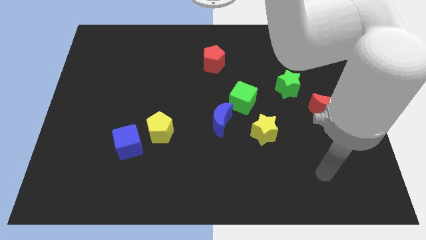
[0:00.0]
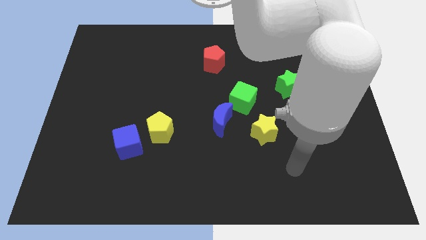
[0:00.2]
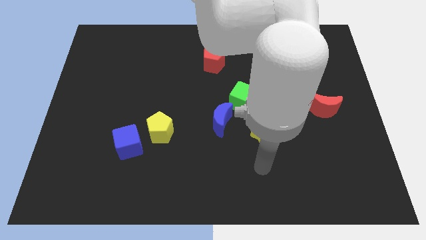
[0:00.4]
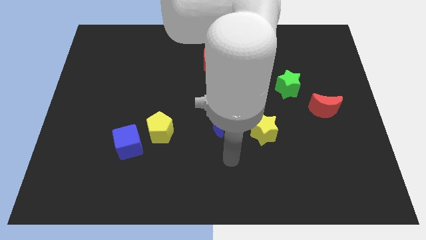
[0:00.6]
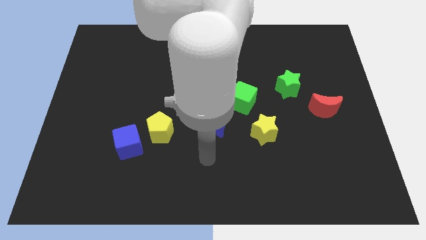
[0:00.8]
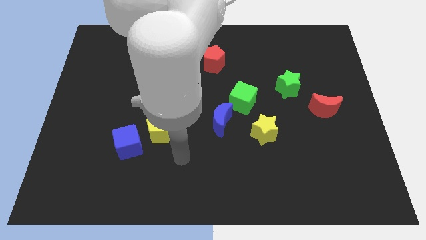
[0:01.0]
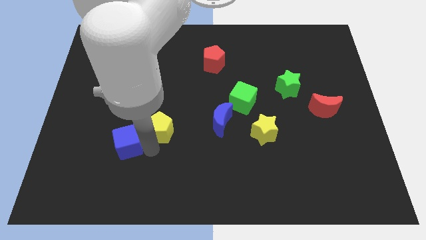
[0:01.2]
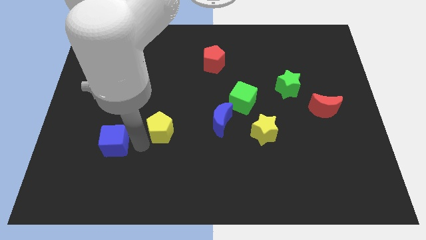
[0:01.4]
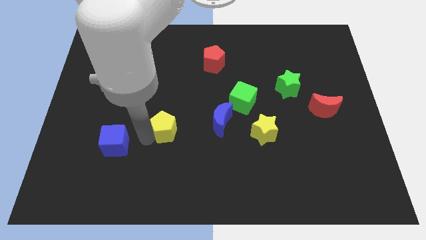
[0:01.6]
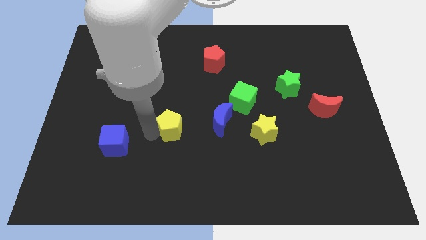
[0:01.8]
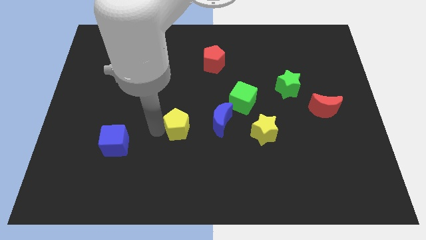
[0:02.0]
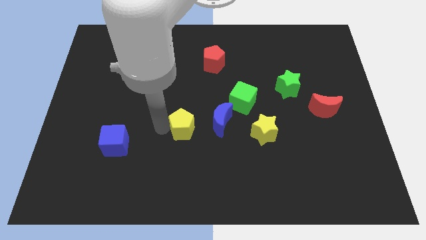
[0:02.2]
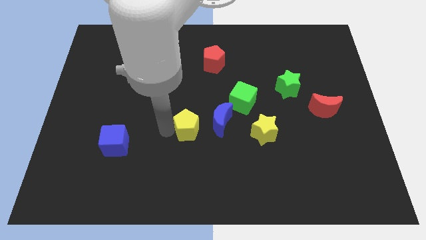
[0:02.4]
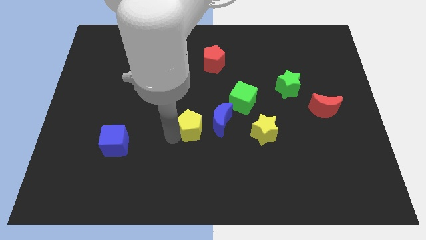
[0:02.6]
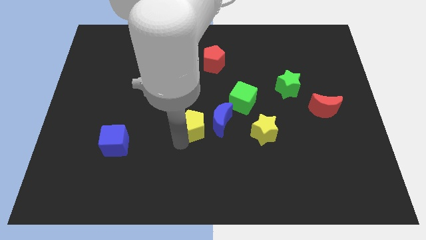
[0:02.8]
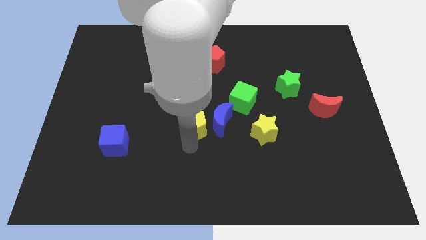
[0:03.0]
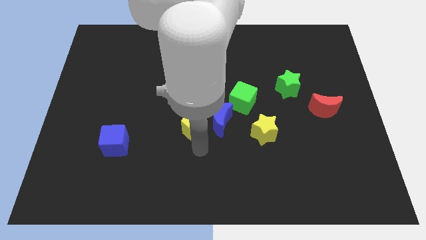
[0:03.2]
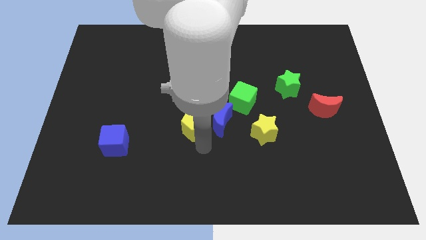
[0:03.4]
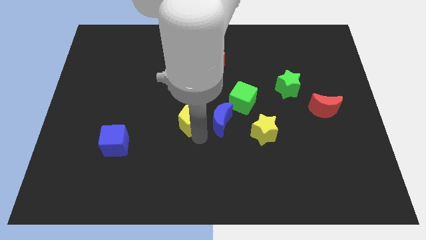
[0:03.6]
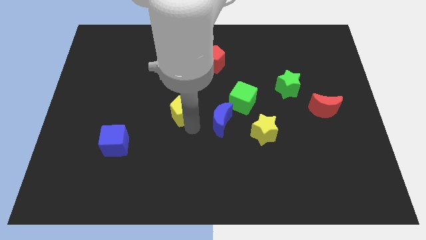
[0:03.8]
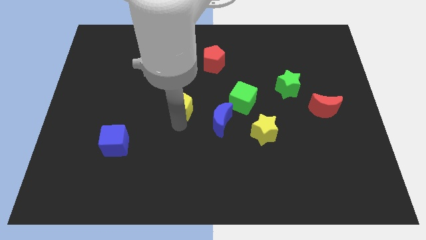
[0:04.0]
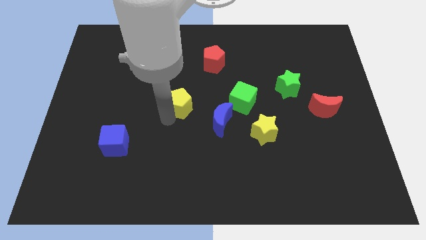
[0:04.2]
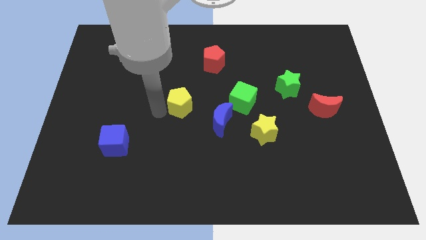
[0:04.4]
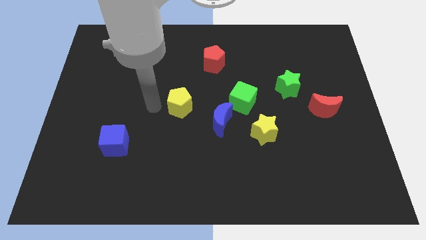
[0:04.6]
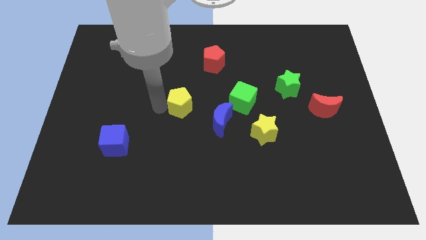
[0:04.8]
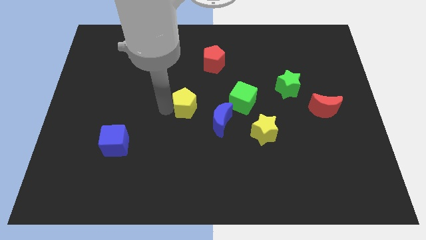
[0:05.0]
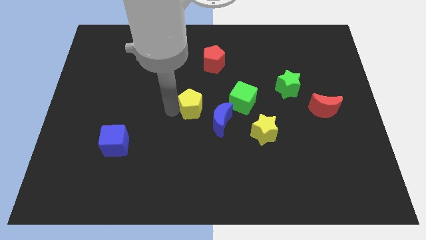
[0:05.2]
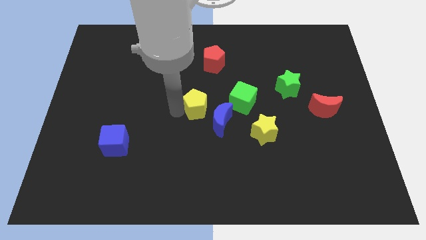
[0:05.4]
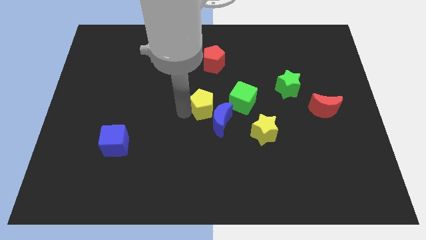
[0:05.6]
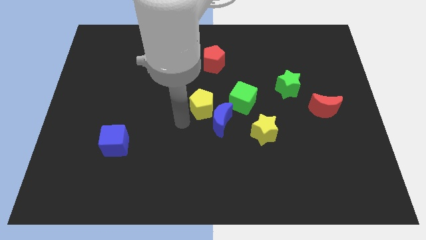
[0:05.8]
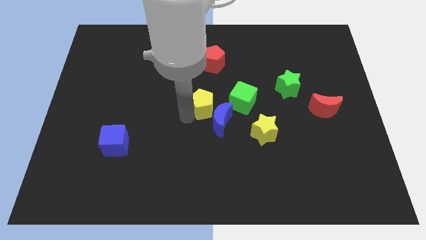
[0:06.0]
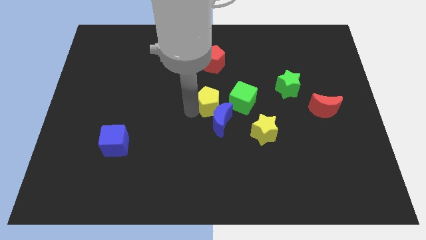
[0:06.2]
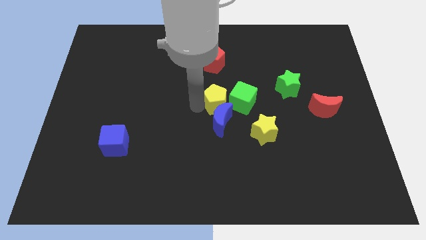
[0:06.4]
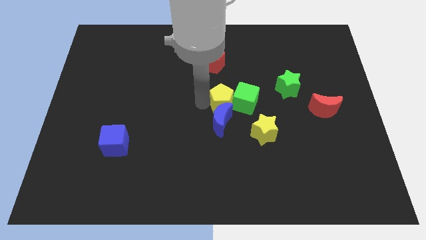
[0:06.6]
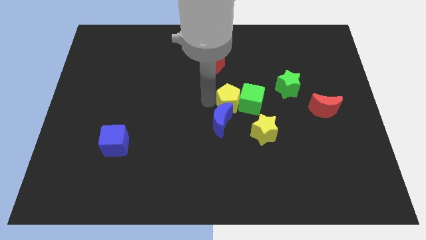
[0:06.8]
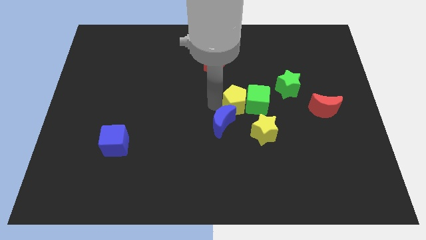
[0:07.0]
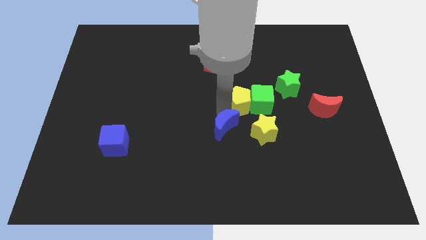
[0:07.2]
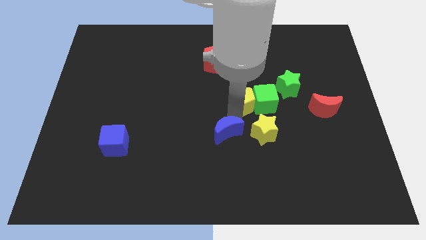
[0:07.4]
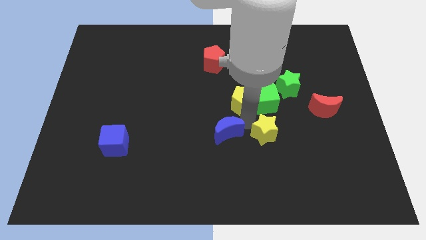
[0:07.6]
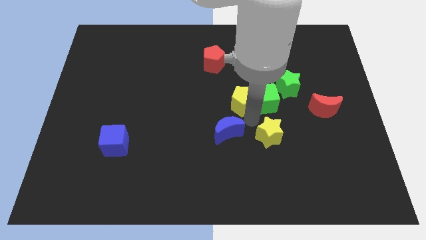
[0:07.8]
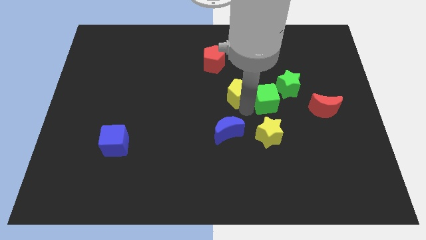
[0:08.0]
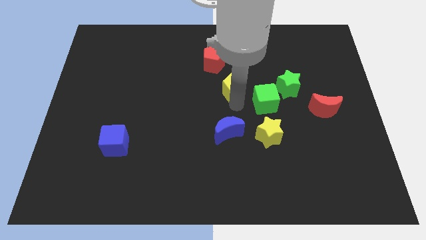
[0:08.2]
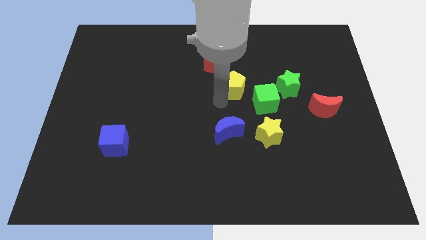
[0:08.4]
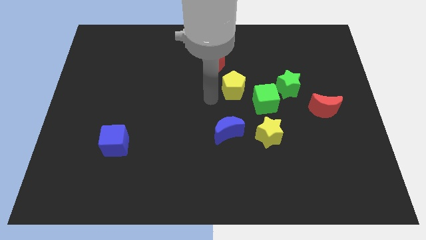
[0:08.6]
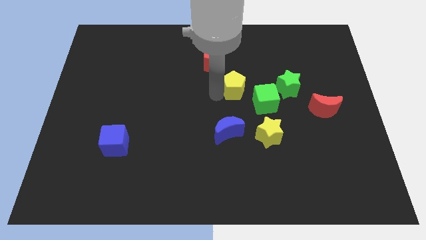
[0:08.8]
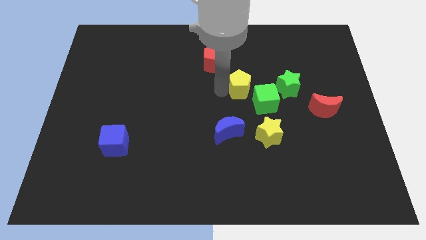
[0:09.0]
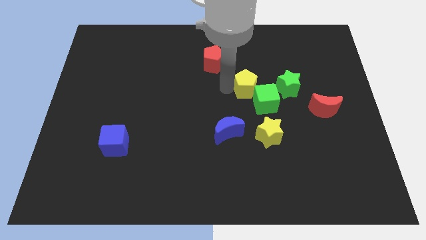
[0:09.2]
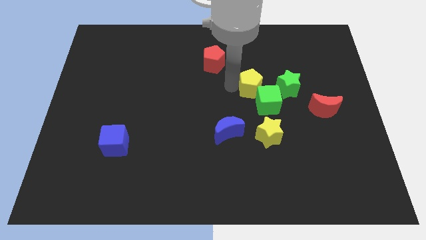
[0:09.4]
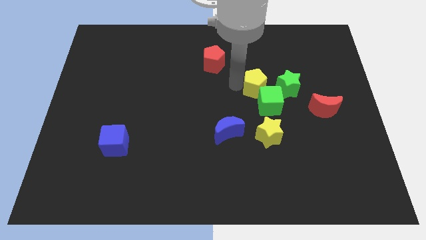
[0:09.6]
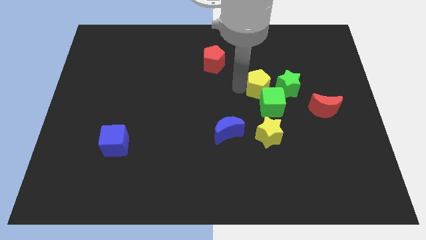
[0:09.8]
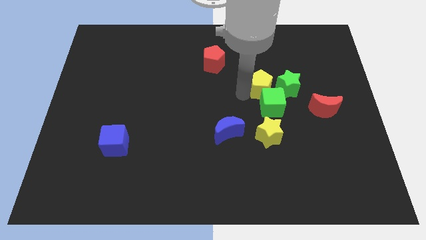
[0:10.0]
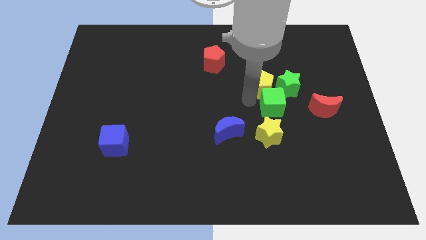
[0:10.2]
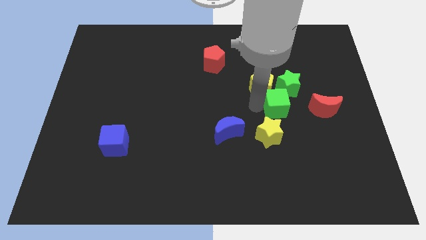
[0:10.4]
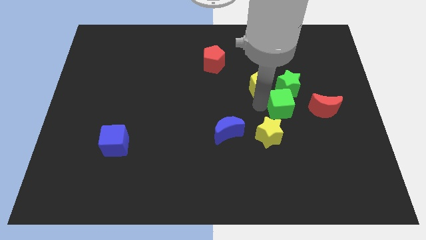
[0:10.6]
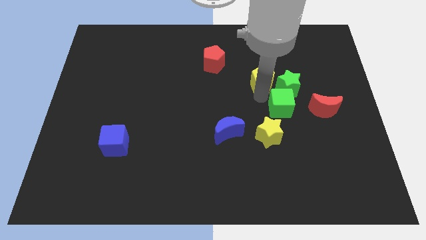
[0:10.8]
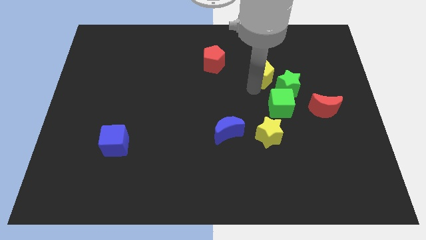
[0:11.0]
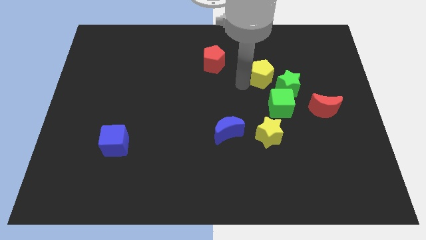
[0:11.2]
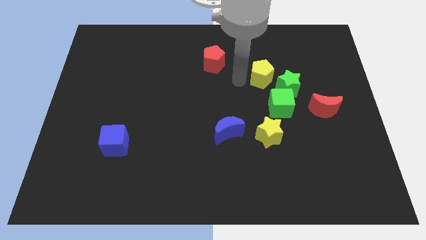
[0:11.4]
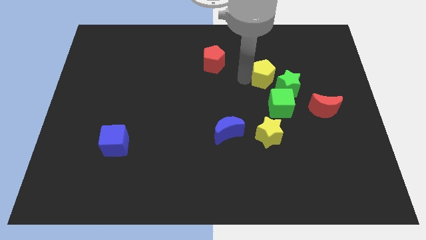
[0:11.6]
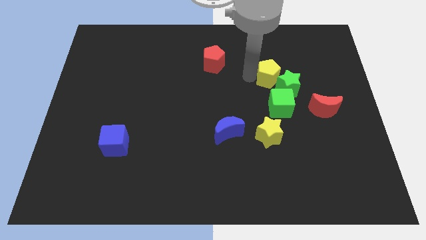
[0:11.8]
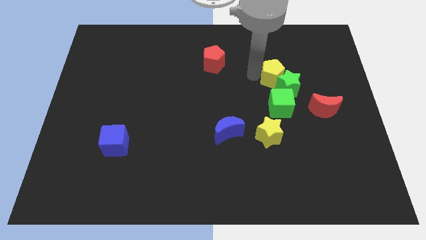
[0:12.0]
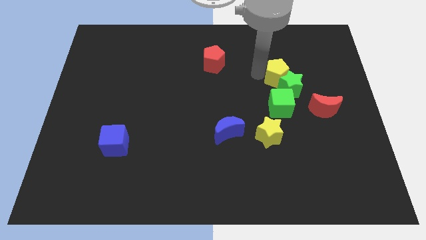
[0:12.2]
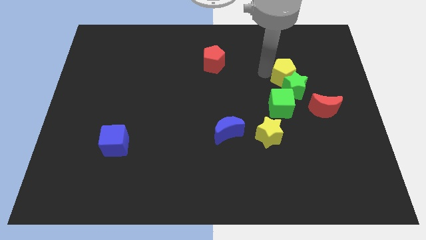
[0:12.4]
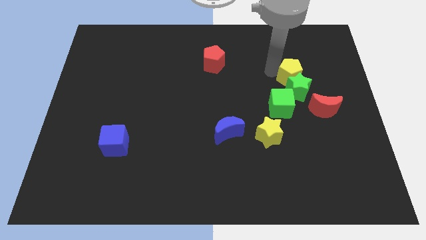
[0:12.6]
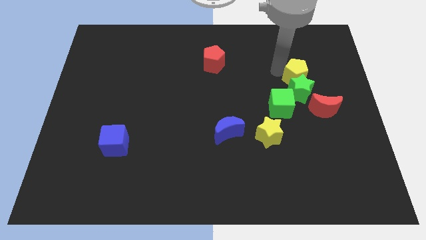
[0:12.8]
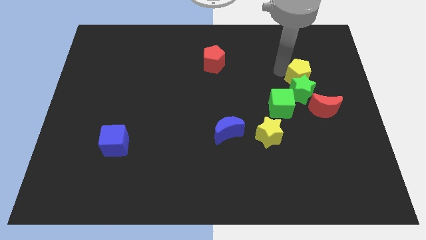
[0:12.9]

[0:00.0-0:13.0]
slide the yellow pentagon above the red moon
